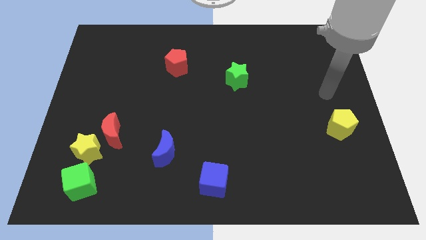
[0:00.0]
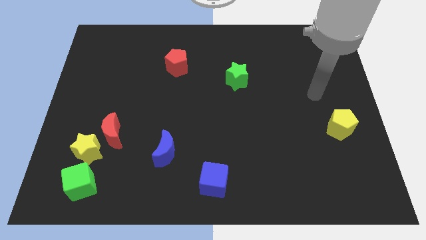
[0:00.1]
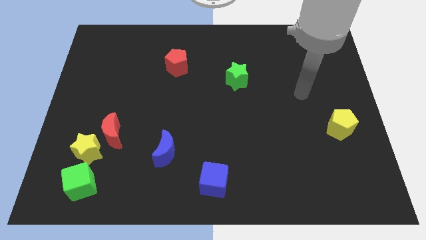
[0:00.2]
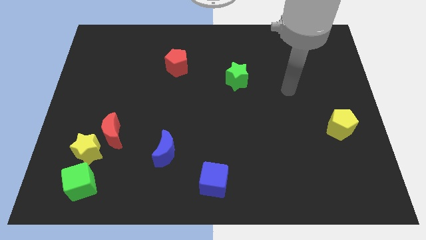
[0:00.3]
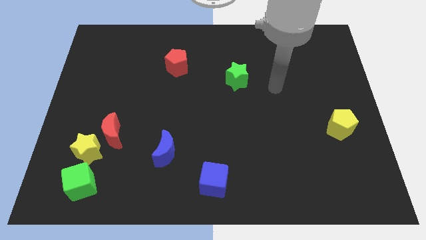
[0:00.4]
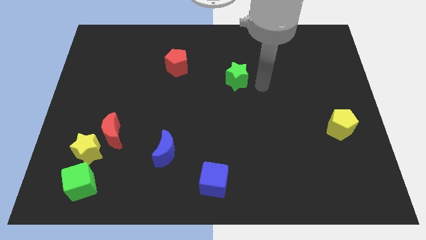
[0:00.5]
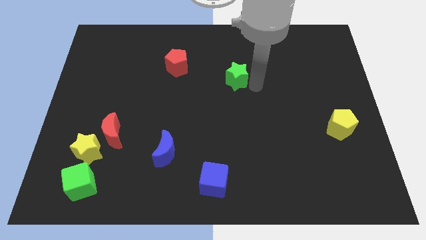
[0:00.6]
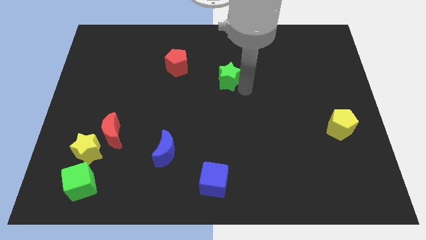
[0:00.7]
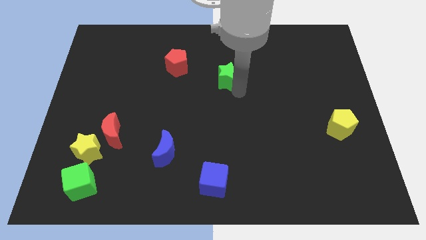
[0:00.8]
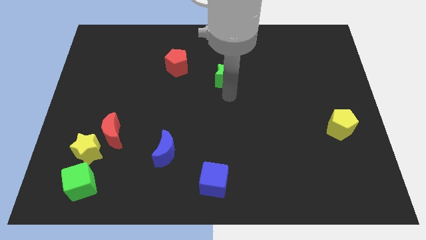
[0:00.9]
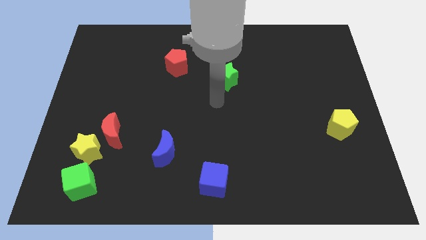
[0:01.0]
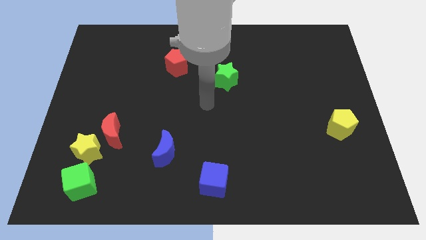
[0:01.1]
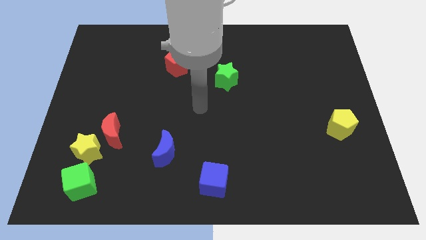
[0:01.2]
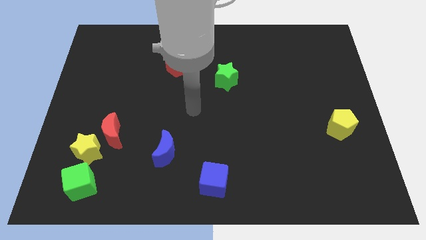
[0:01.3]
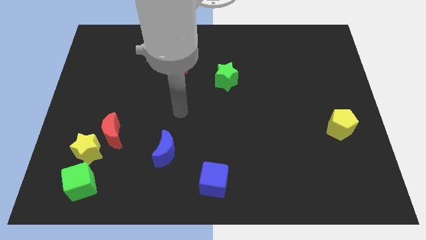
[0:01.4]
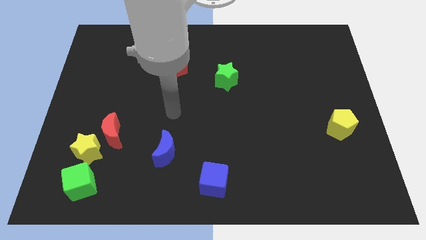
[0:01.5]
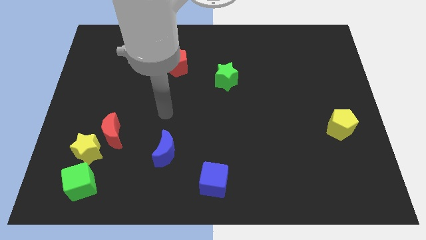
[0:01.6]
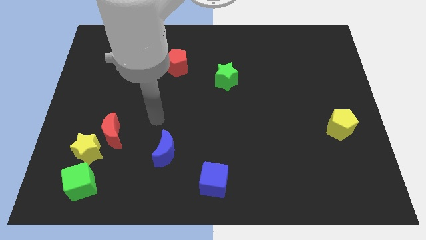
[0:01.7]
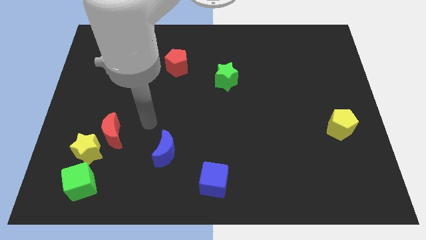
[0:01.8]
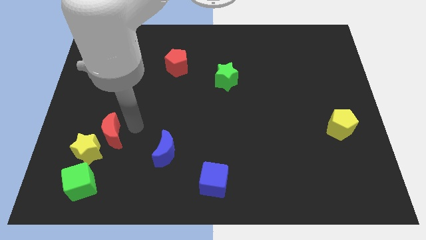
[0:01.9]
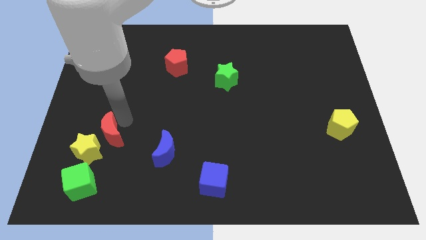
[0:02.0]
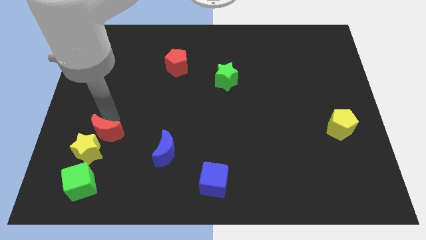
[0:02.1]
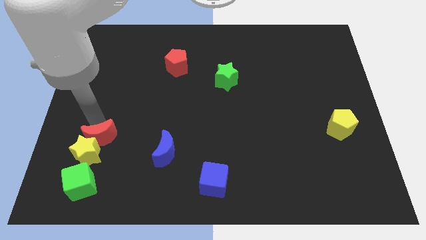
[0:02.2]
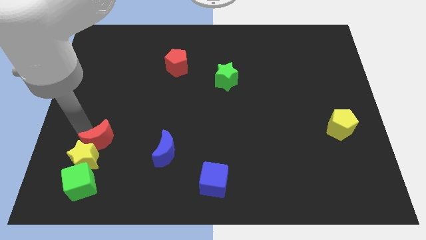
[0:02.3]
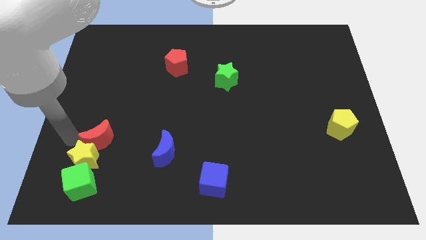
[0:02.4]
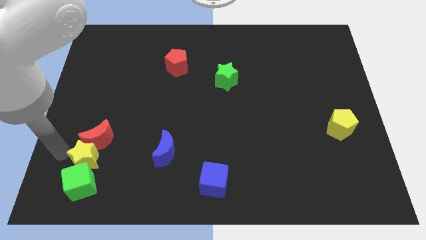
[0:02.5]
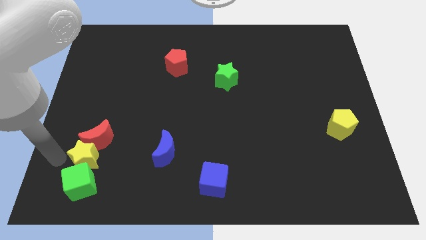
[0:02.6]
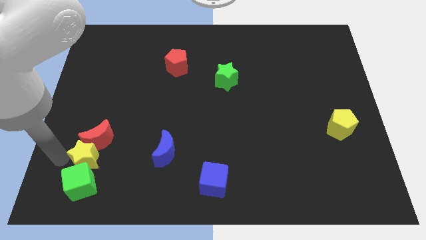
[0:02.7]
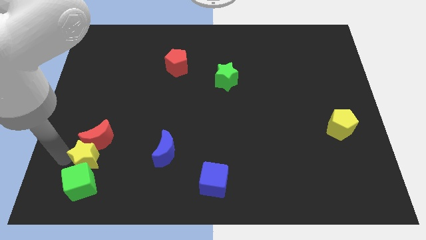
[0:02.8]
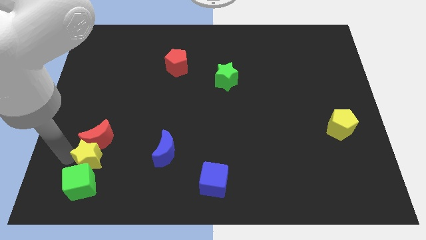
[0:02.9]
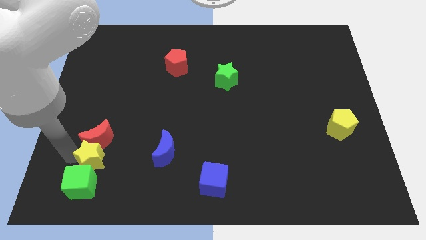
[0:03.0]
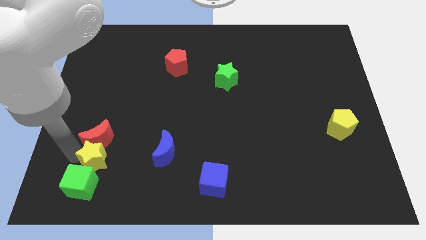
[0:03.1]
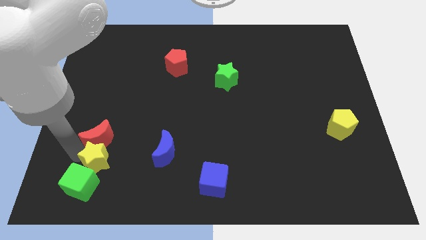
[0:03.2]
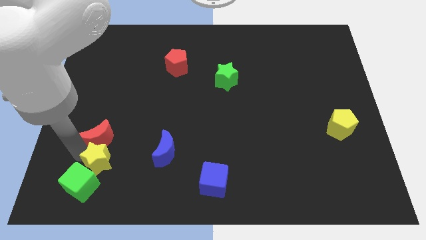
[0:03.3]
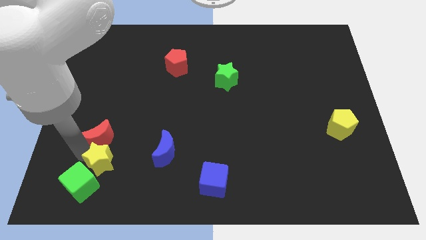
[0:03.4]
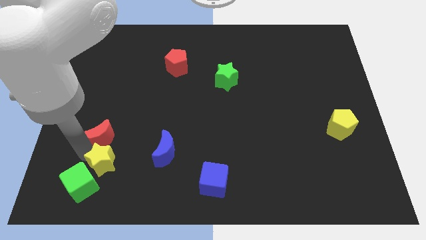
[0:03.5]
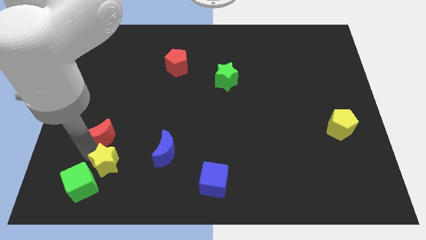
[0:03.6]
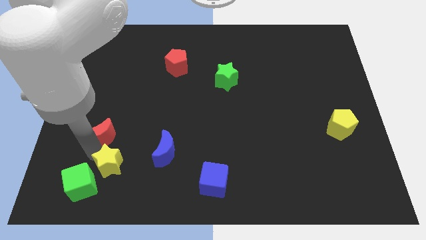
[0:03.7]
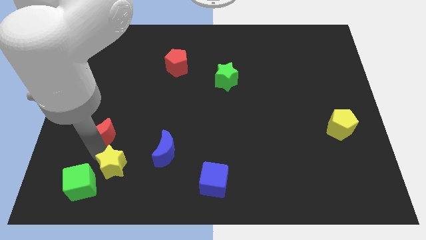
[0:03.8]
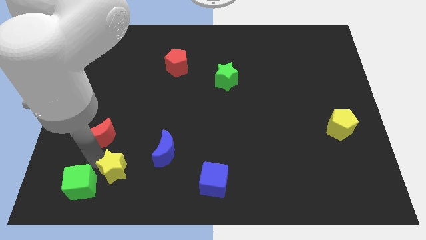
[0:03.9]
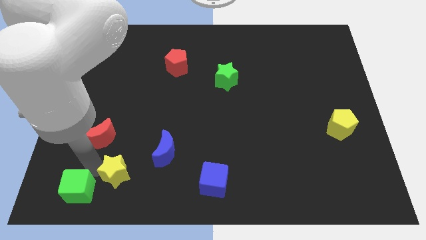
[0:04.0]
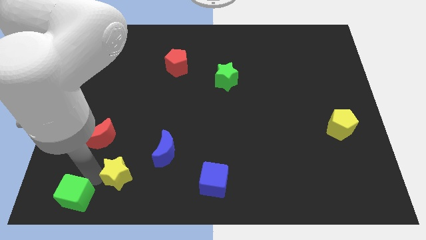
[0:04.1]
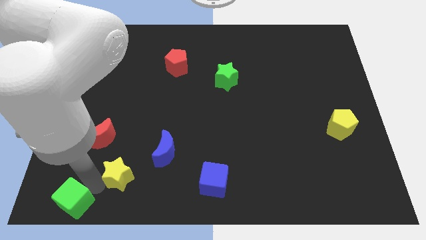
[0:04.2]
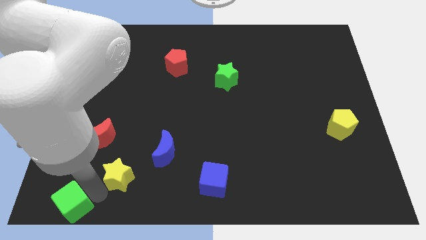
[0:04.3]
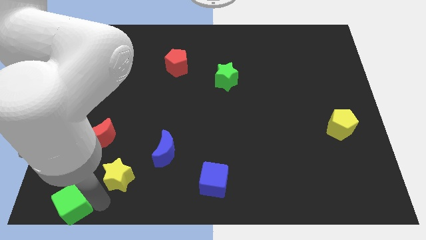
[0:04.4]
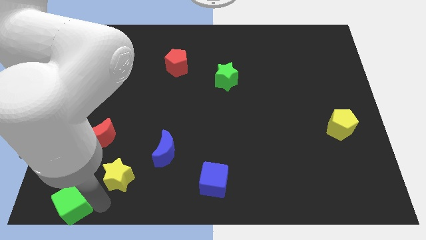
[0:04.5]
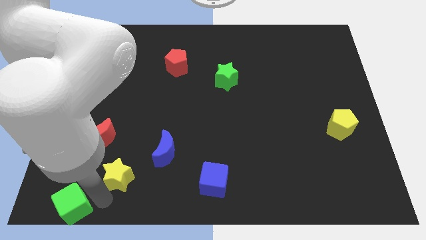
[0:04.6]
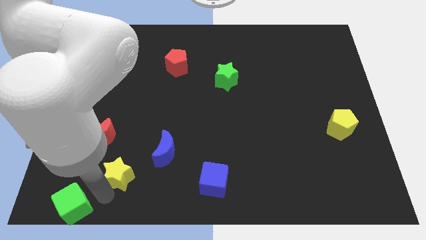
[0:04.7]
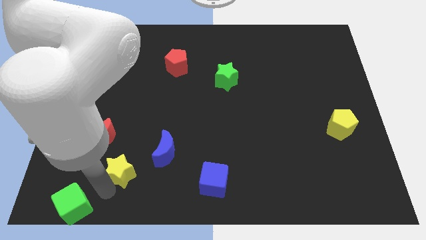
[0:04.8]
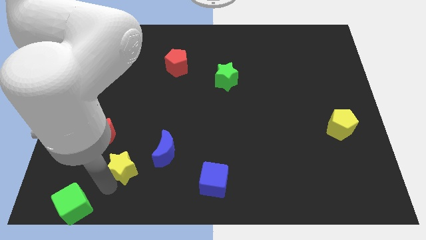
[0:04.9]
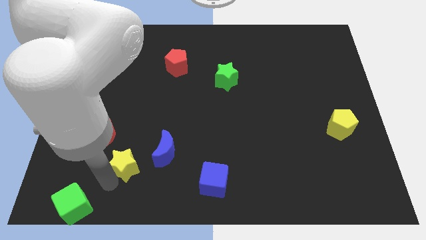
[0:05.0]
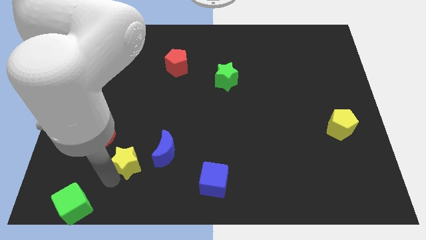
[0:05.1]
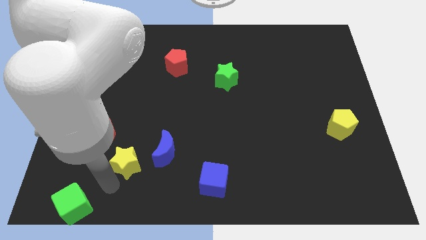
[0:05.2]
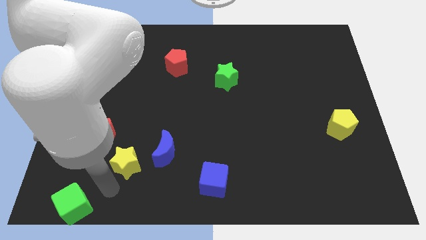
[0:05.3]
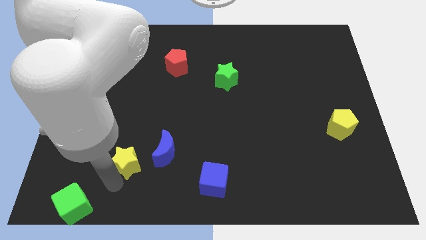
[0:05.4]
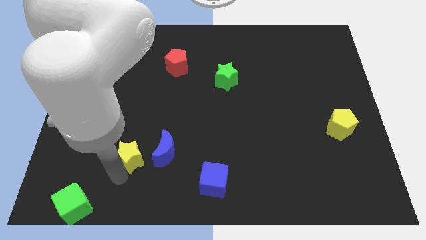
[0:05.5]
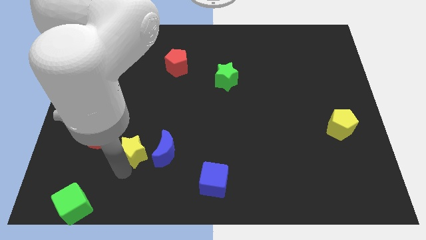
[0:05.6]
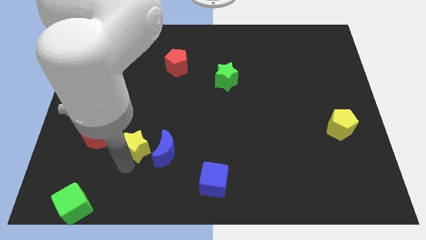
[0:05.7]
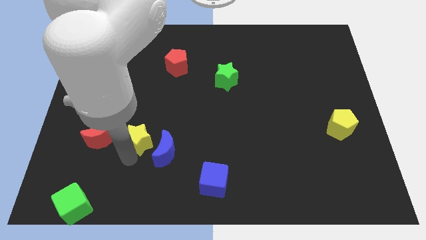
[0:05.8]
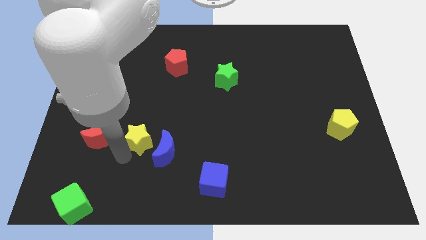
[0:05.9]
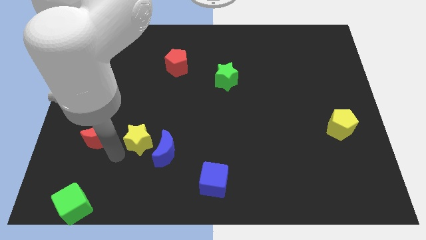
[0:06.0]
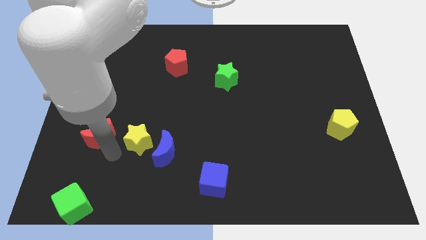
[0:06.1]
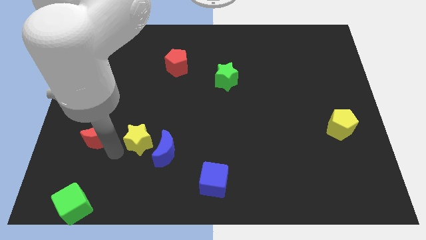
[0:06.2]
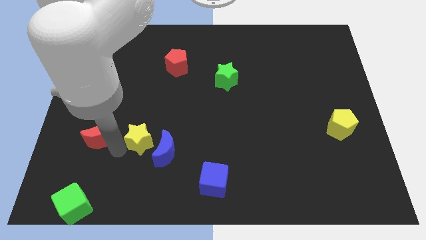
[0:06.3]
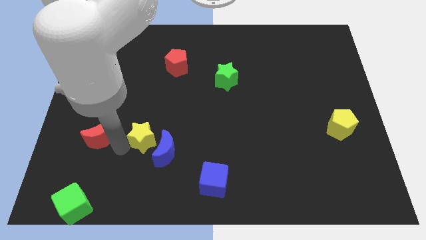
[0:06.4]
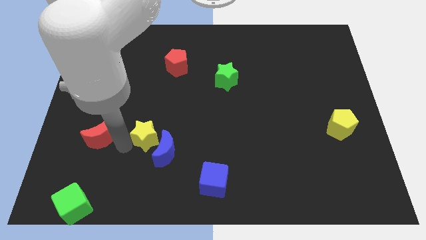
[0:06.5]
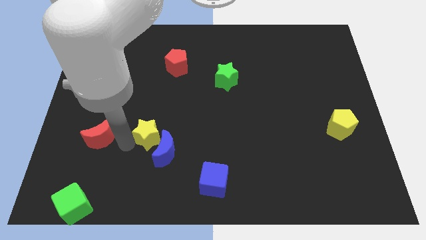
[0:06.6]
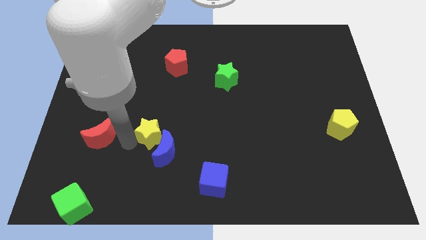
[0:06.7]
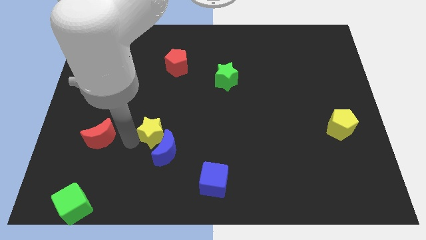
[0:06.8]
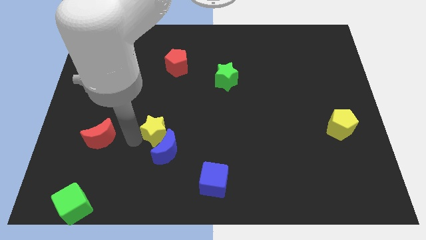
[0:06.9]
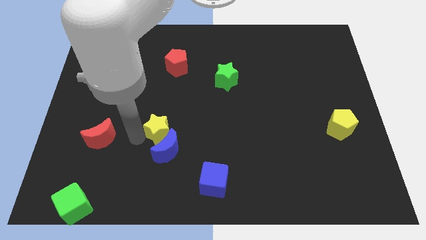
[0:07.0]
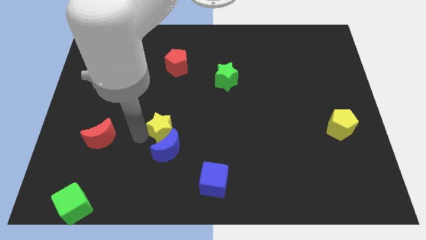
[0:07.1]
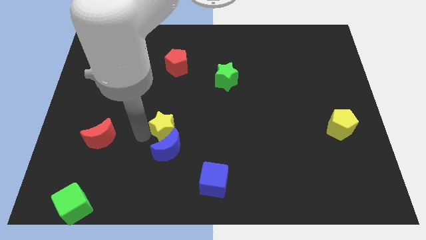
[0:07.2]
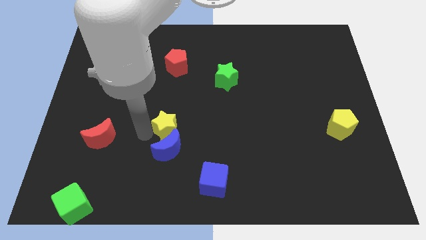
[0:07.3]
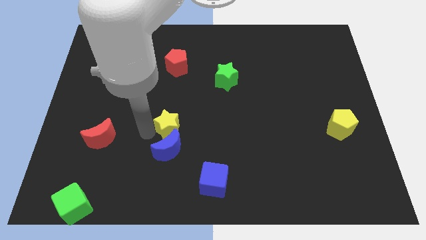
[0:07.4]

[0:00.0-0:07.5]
push the yellow star to the center of the board
